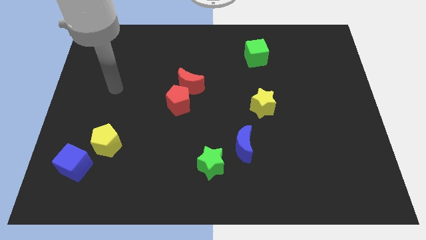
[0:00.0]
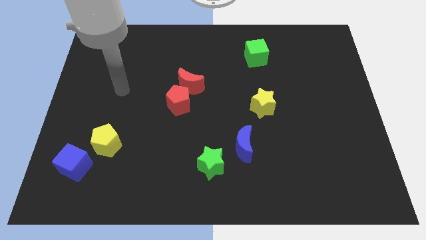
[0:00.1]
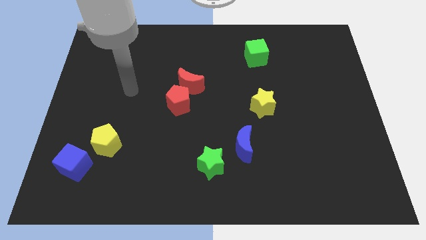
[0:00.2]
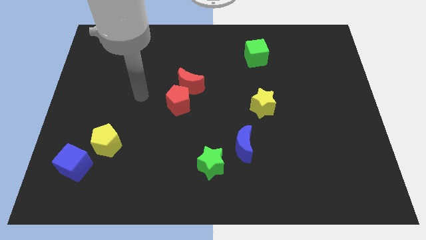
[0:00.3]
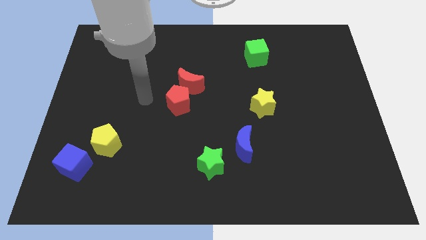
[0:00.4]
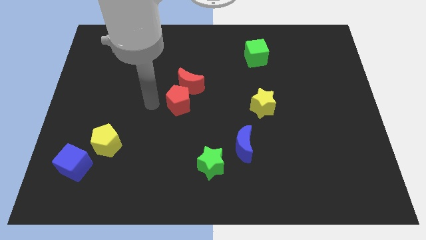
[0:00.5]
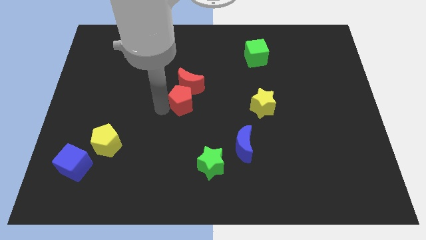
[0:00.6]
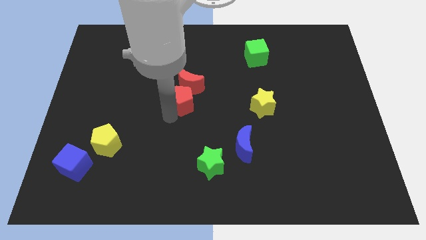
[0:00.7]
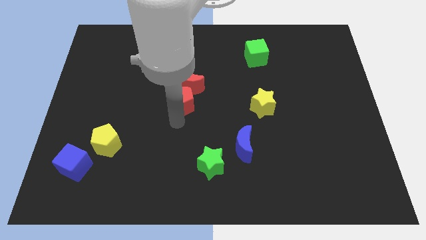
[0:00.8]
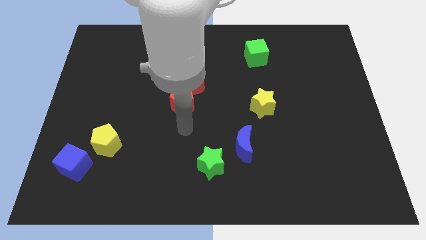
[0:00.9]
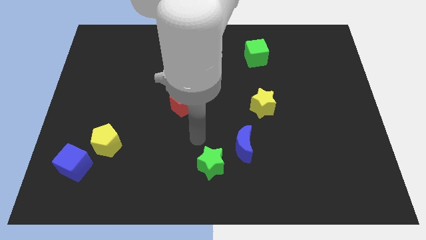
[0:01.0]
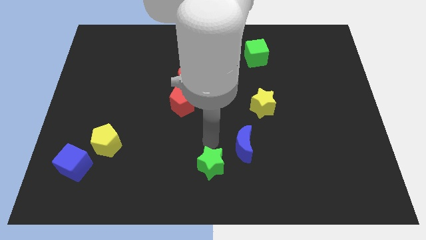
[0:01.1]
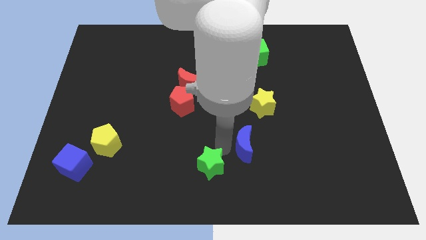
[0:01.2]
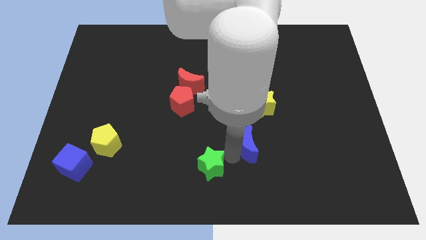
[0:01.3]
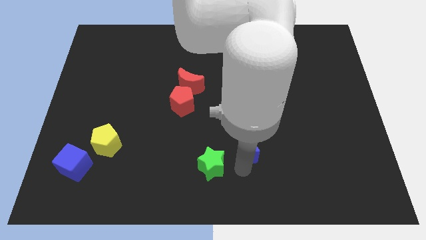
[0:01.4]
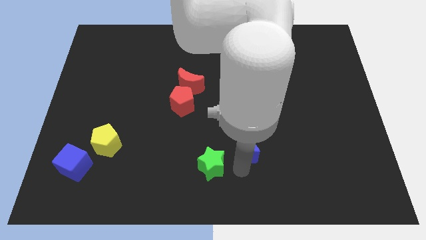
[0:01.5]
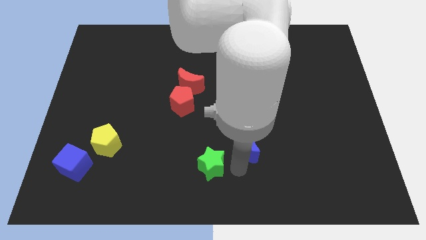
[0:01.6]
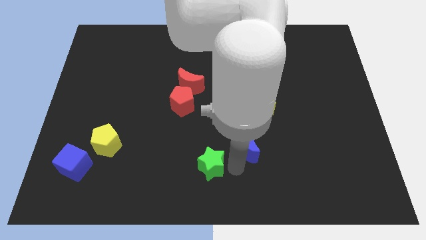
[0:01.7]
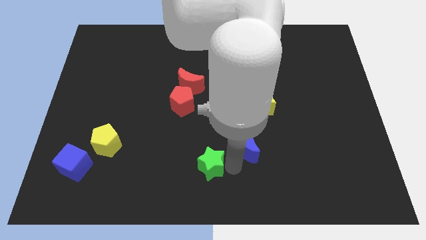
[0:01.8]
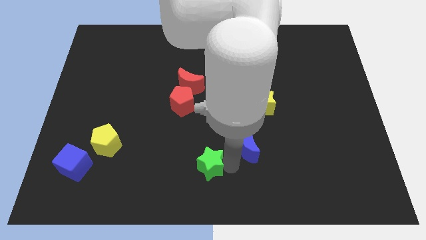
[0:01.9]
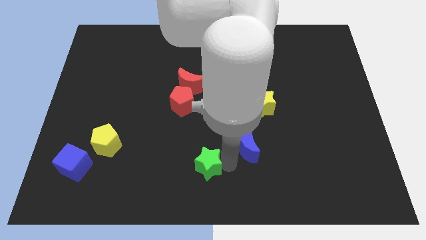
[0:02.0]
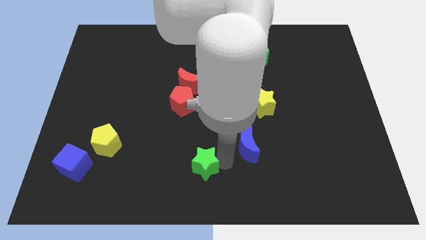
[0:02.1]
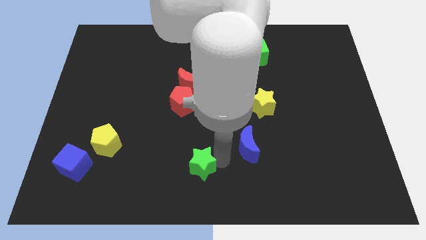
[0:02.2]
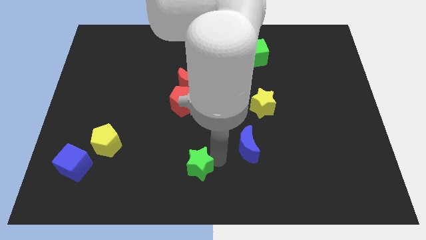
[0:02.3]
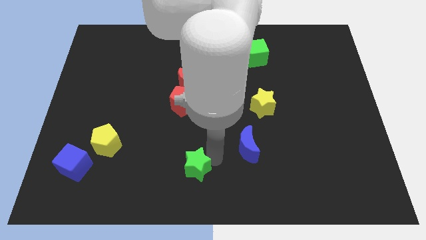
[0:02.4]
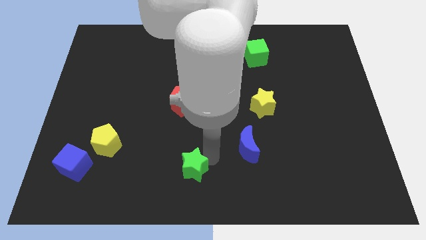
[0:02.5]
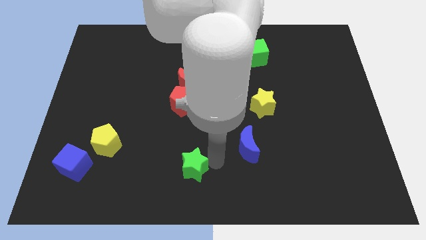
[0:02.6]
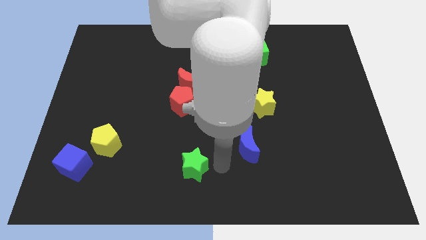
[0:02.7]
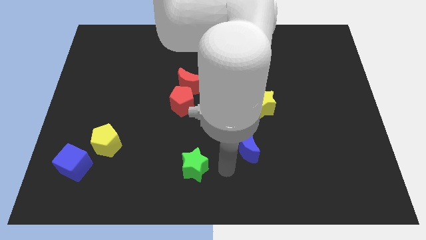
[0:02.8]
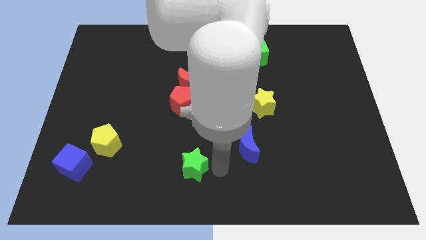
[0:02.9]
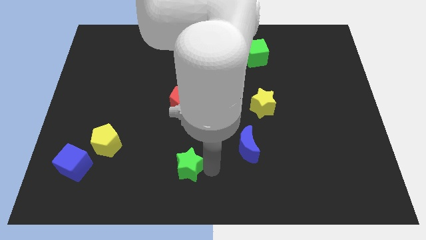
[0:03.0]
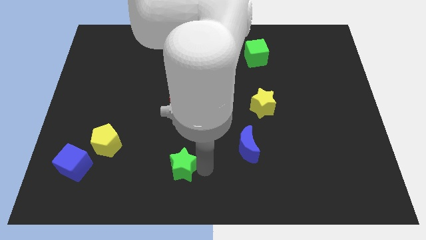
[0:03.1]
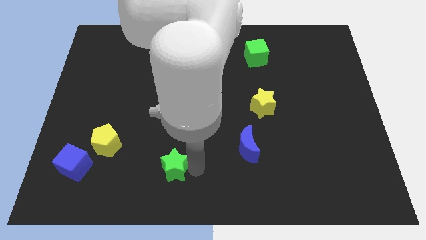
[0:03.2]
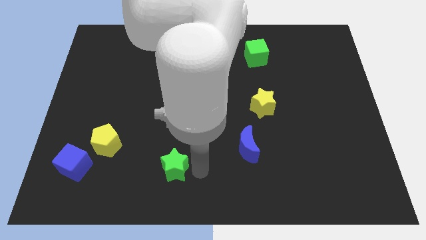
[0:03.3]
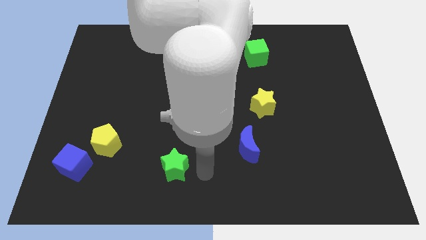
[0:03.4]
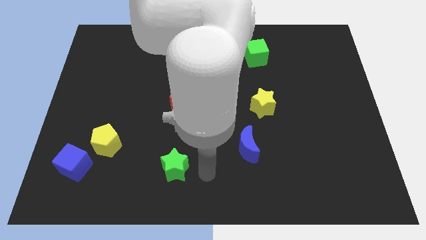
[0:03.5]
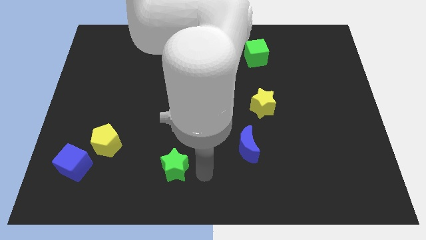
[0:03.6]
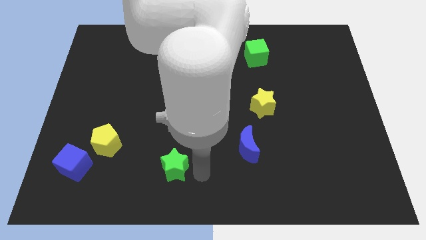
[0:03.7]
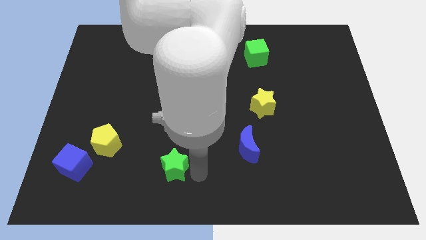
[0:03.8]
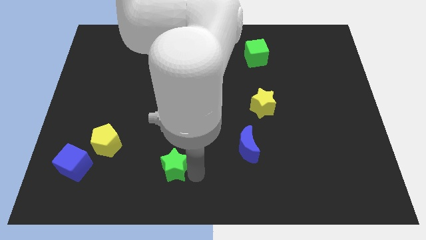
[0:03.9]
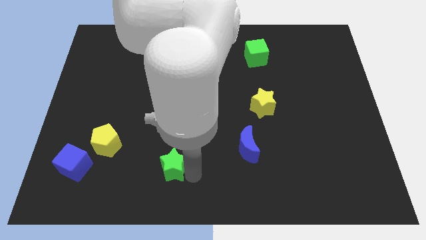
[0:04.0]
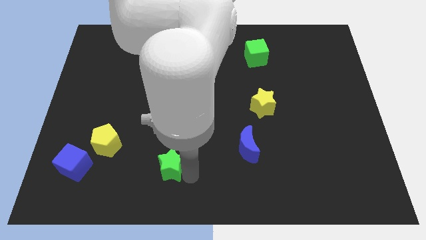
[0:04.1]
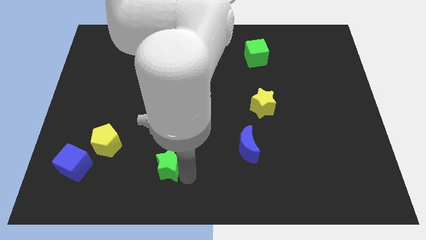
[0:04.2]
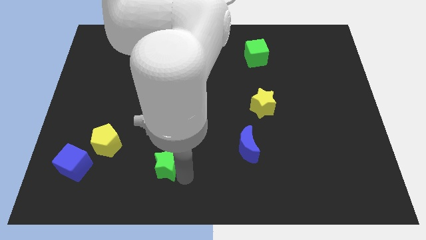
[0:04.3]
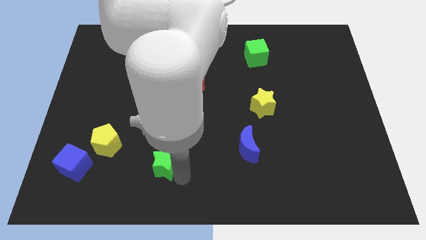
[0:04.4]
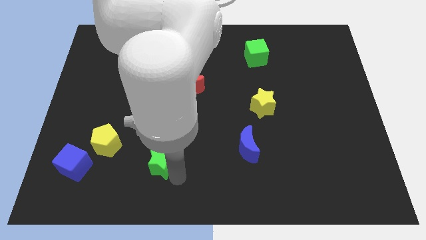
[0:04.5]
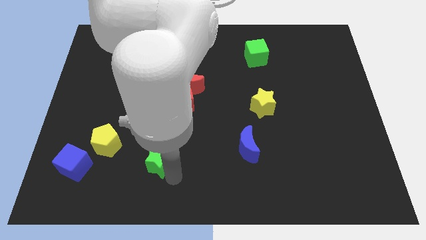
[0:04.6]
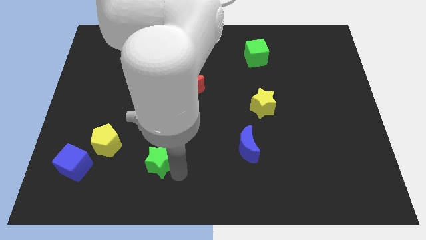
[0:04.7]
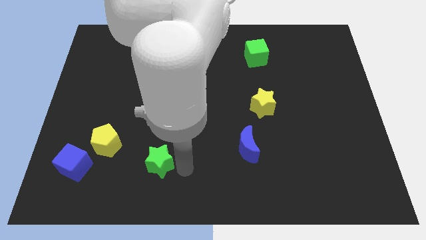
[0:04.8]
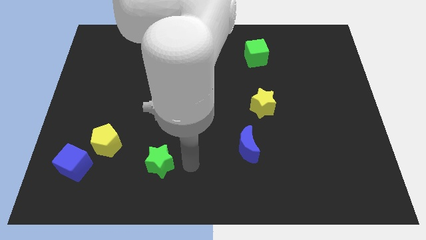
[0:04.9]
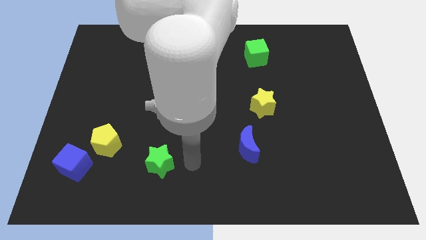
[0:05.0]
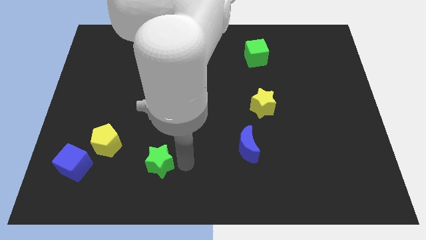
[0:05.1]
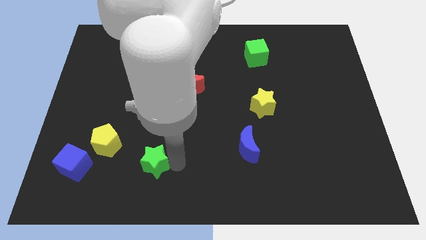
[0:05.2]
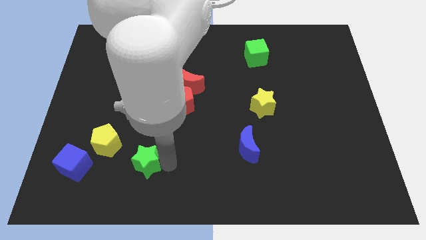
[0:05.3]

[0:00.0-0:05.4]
push the green star to the bottom right side of the yellow pentagon

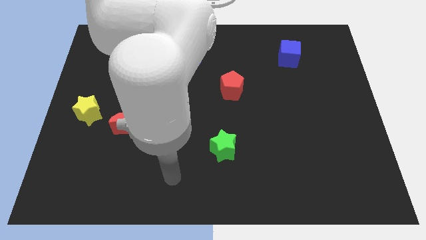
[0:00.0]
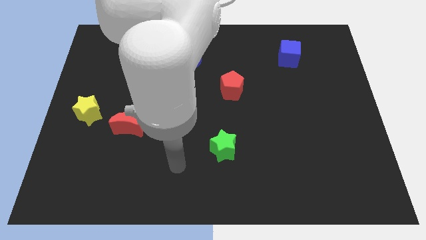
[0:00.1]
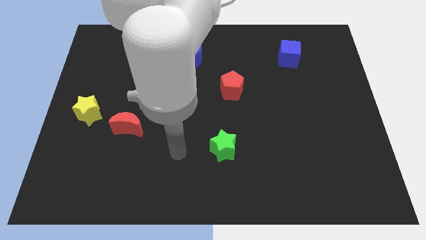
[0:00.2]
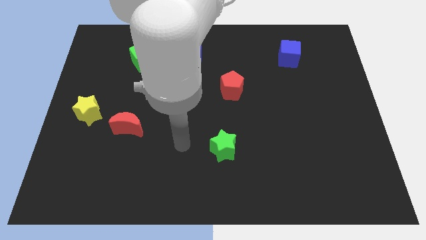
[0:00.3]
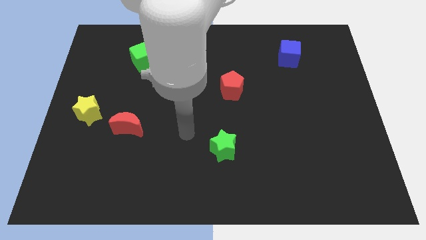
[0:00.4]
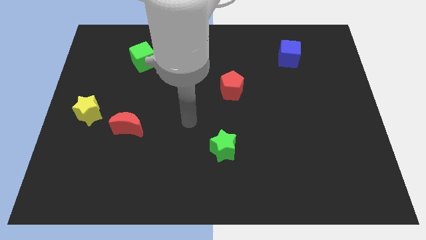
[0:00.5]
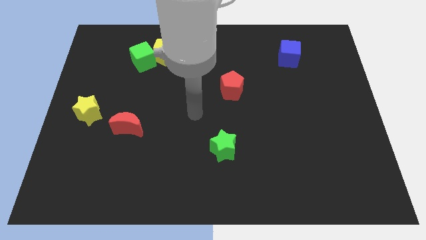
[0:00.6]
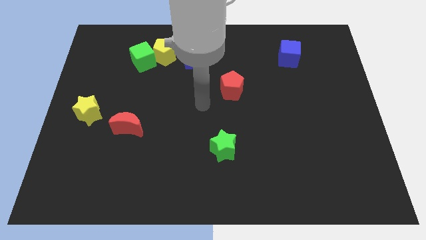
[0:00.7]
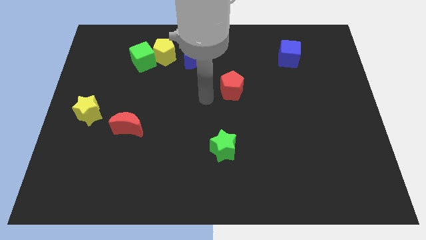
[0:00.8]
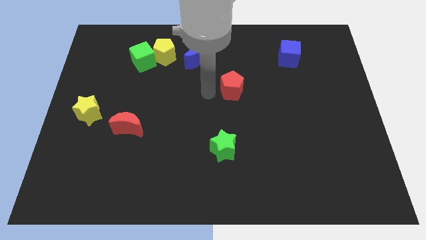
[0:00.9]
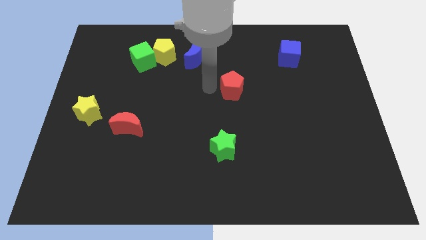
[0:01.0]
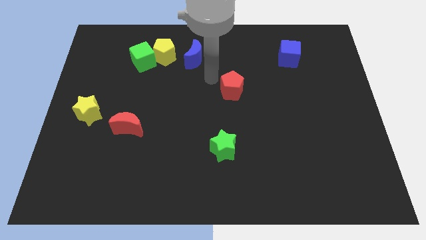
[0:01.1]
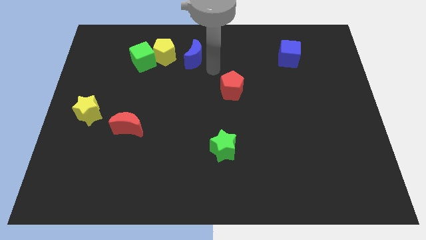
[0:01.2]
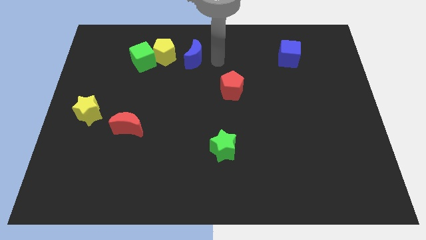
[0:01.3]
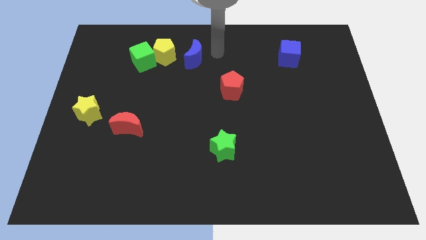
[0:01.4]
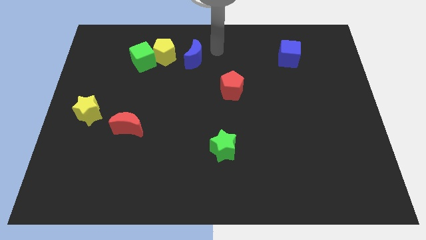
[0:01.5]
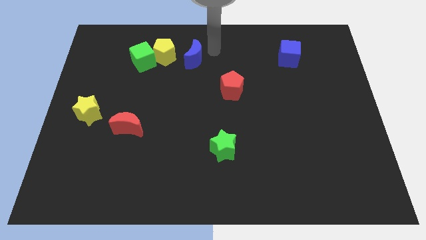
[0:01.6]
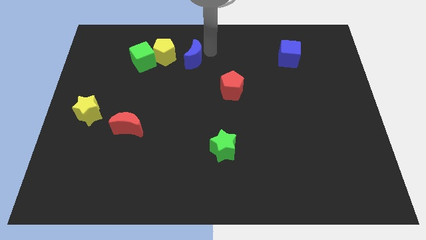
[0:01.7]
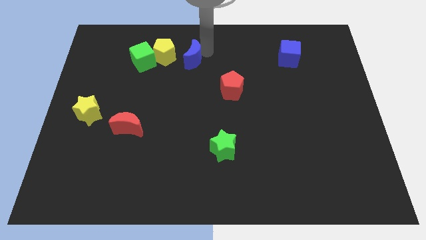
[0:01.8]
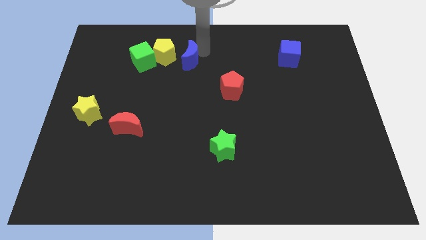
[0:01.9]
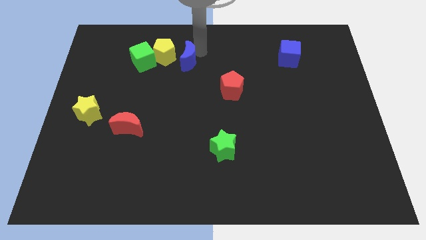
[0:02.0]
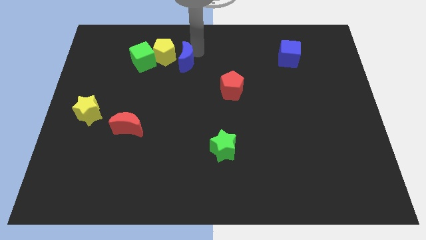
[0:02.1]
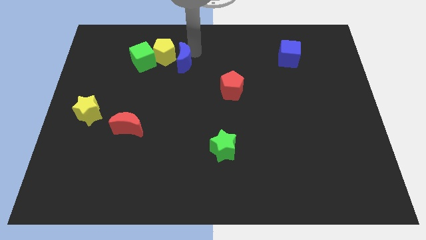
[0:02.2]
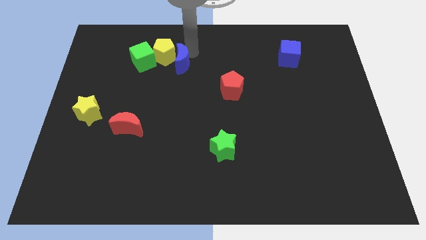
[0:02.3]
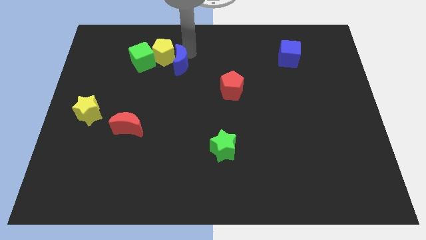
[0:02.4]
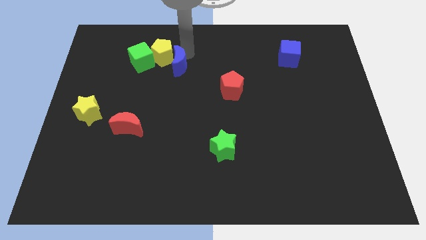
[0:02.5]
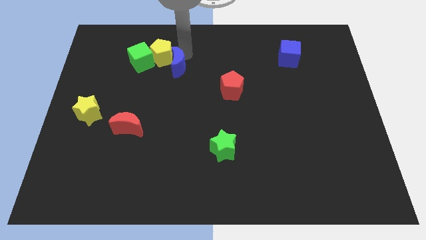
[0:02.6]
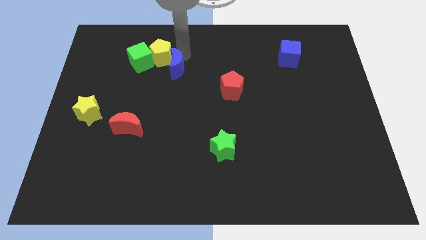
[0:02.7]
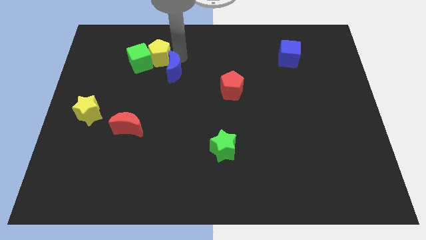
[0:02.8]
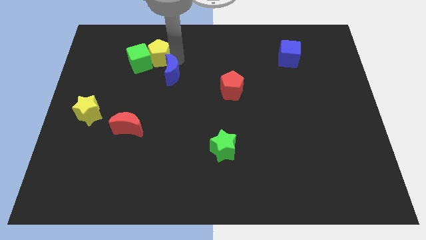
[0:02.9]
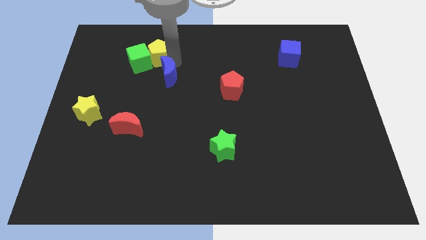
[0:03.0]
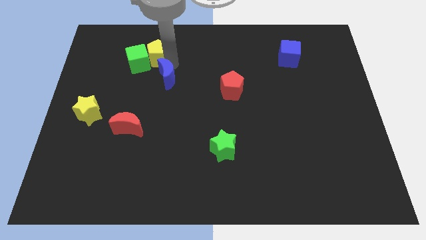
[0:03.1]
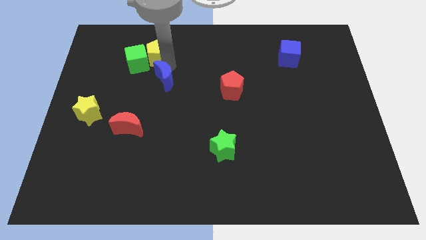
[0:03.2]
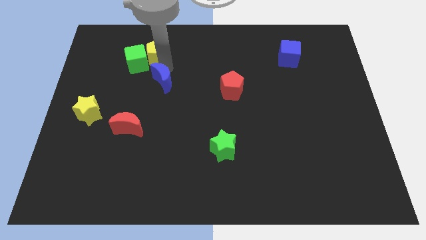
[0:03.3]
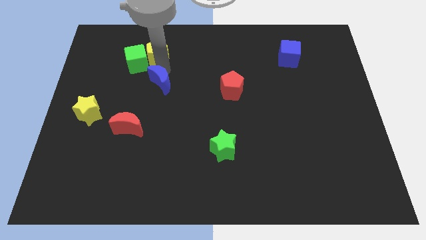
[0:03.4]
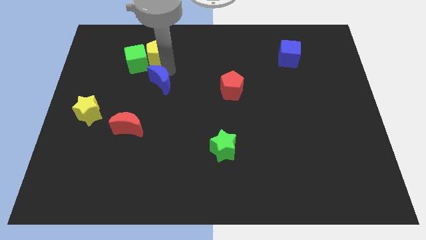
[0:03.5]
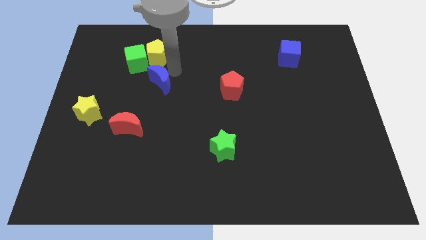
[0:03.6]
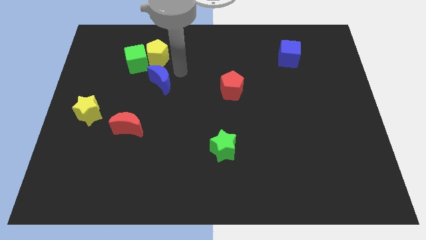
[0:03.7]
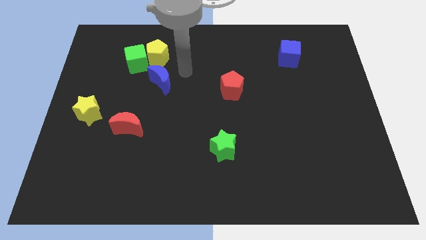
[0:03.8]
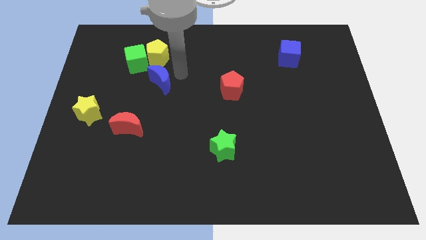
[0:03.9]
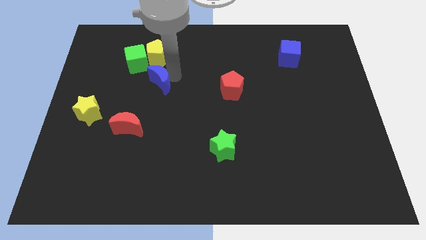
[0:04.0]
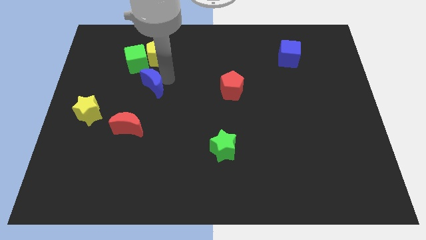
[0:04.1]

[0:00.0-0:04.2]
move the blue moon to the top side of the red moon
